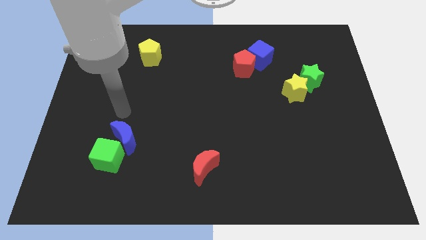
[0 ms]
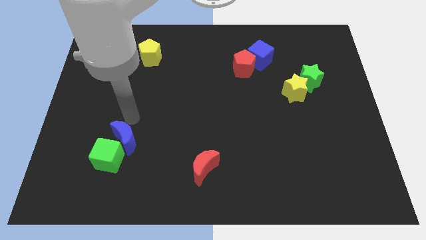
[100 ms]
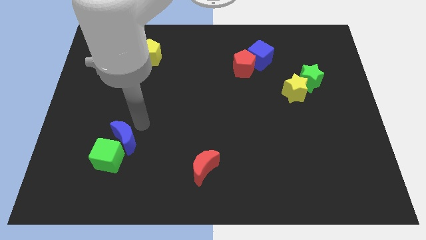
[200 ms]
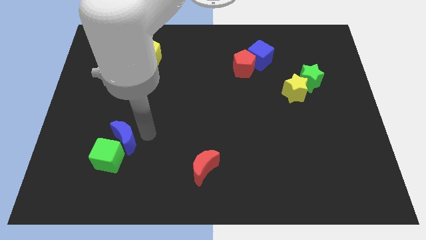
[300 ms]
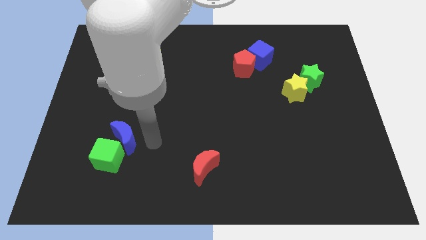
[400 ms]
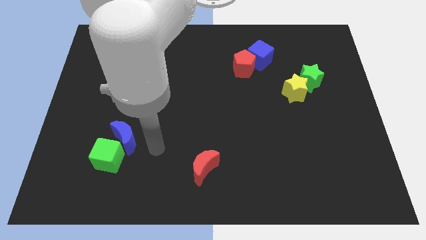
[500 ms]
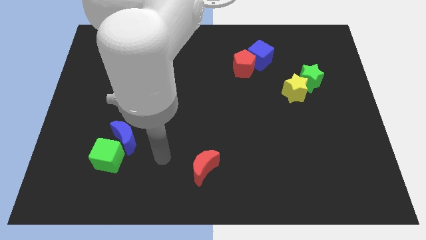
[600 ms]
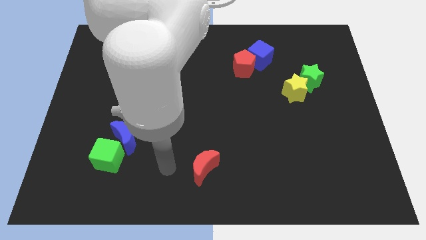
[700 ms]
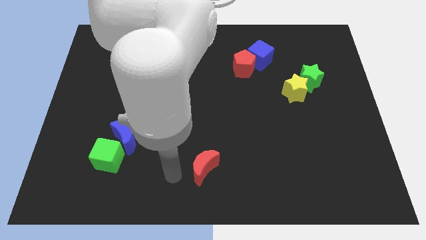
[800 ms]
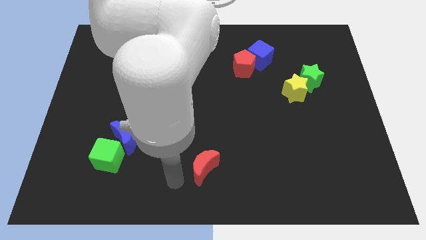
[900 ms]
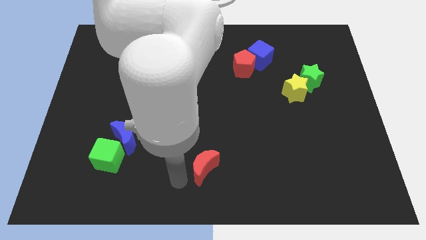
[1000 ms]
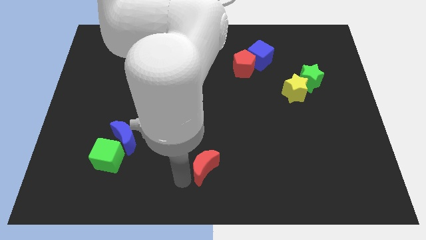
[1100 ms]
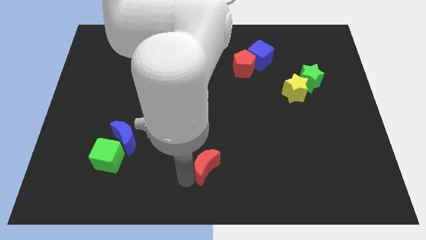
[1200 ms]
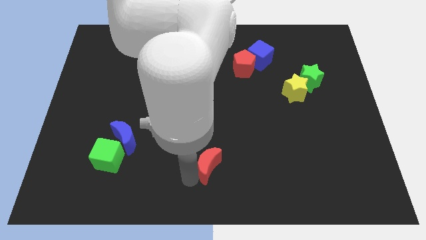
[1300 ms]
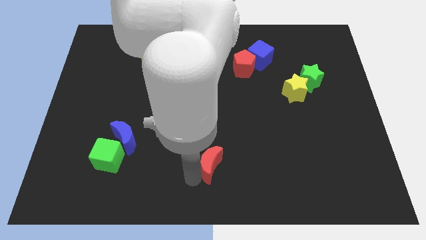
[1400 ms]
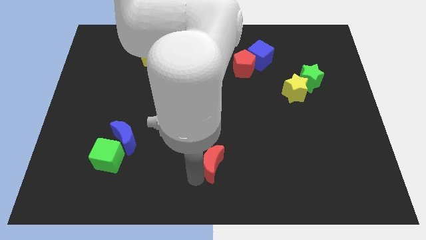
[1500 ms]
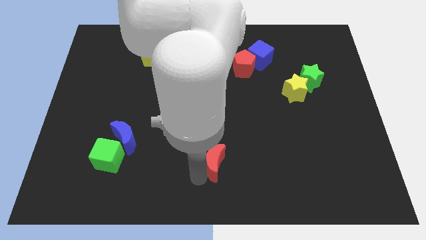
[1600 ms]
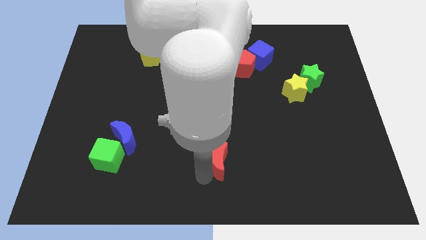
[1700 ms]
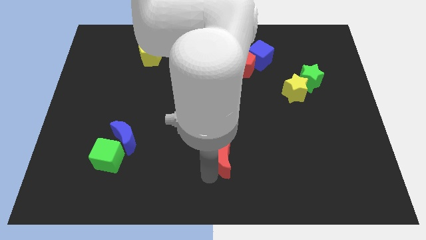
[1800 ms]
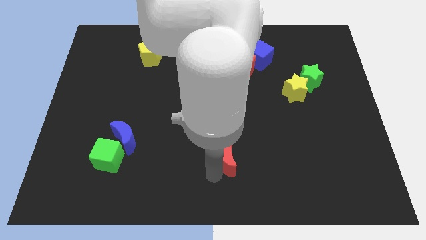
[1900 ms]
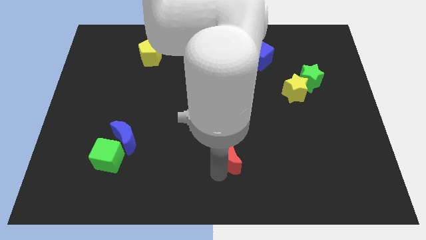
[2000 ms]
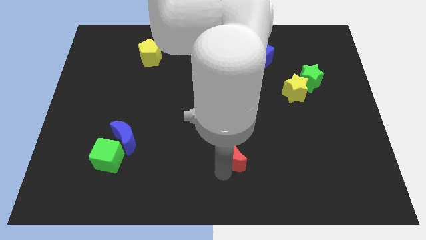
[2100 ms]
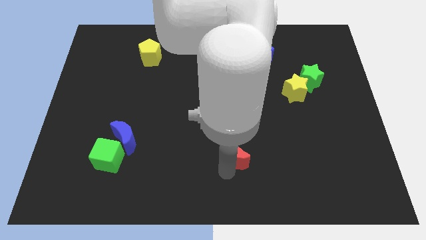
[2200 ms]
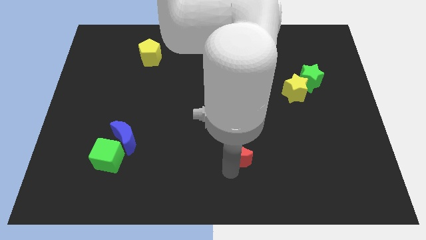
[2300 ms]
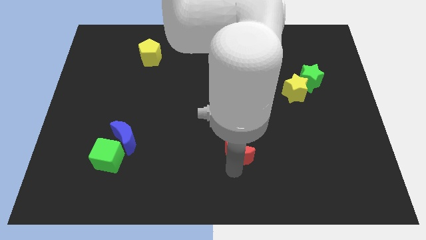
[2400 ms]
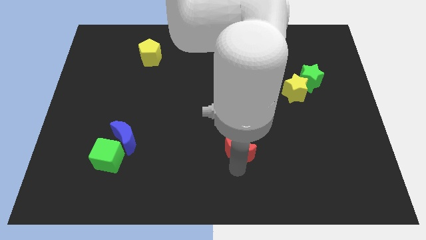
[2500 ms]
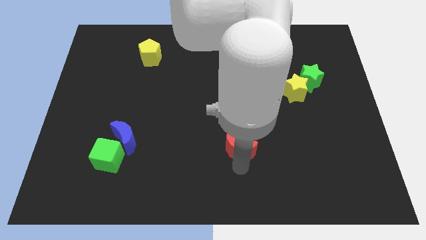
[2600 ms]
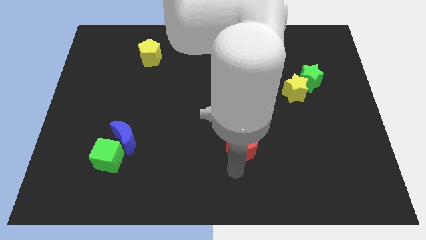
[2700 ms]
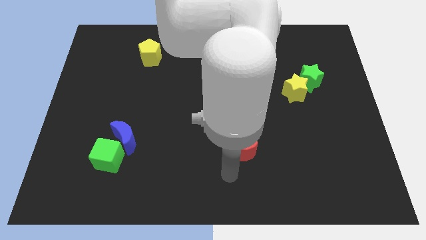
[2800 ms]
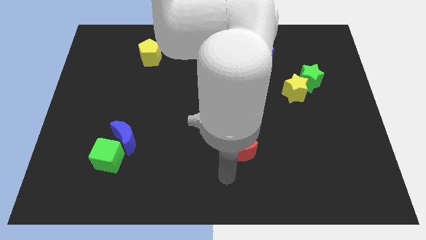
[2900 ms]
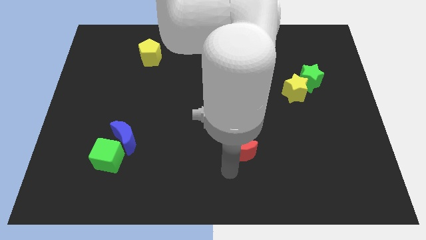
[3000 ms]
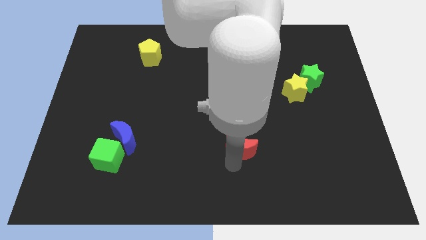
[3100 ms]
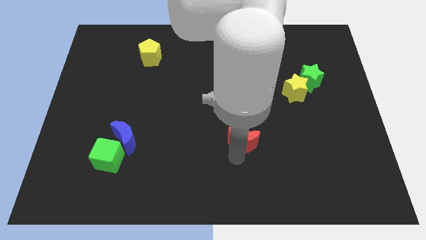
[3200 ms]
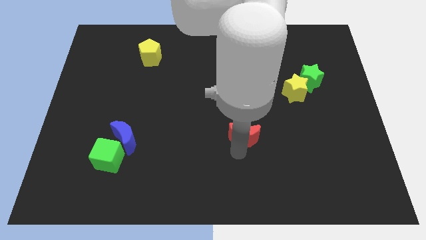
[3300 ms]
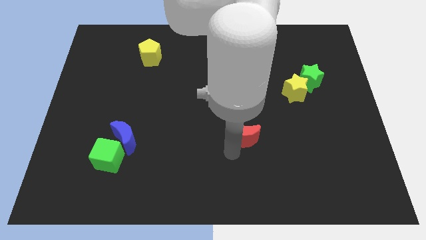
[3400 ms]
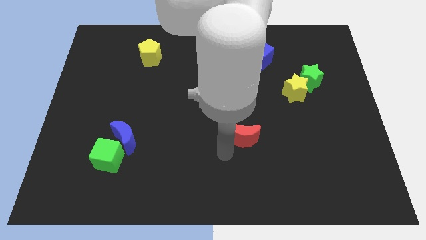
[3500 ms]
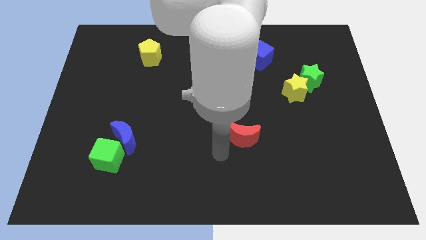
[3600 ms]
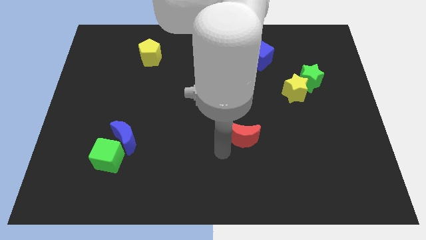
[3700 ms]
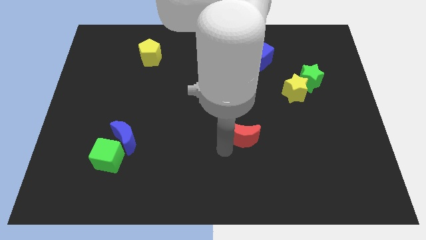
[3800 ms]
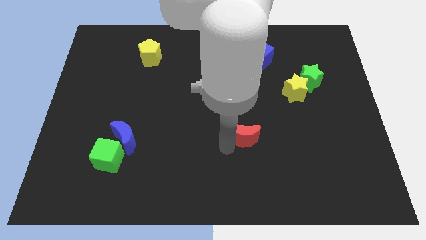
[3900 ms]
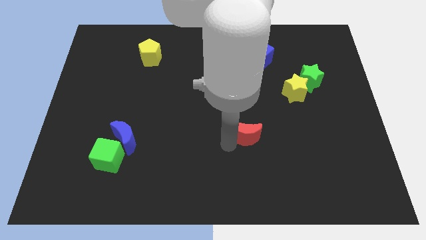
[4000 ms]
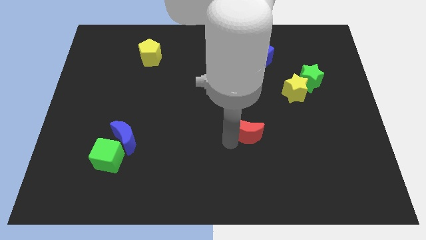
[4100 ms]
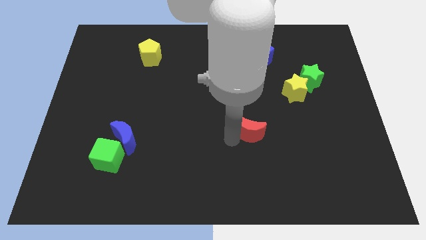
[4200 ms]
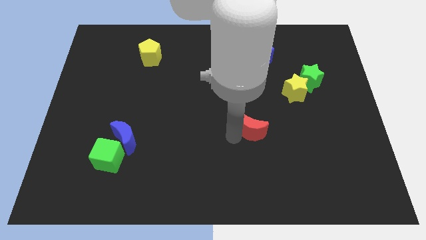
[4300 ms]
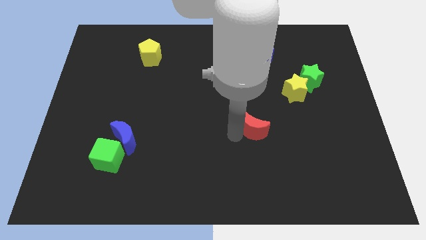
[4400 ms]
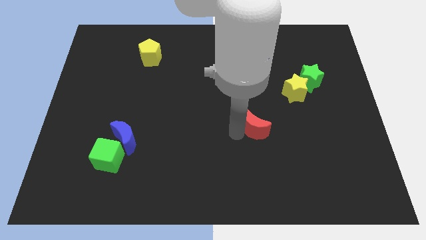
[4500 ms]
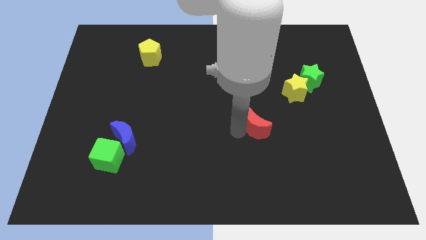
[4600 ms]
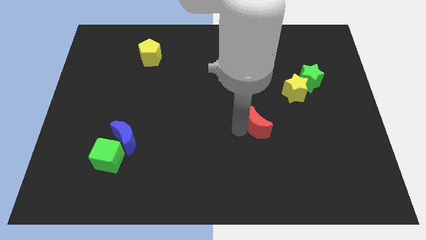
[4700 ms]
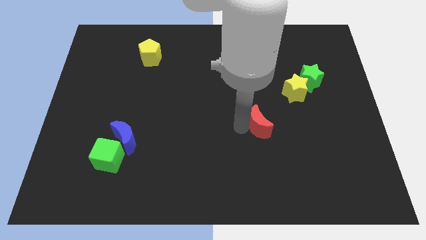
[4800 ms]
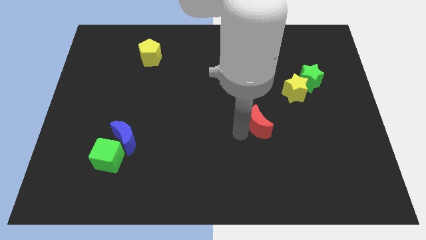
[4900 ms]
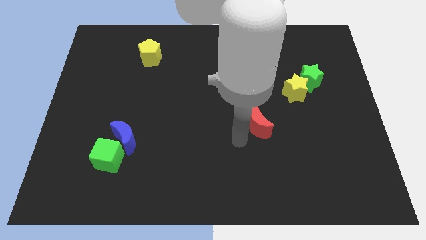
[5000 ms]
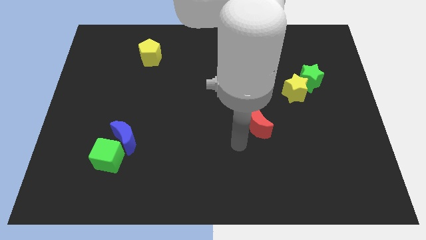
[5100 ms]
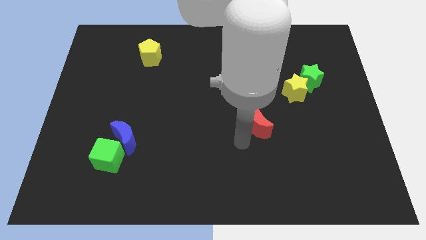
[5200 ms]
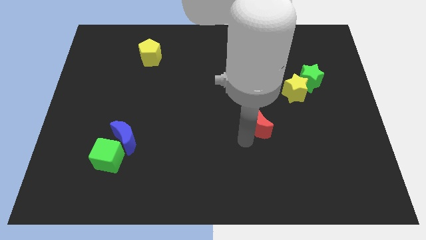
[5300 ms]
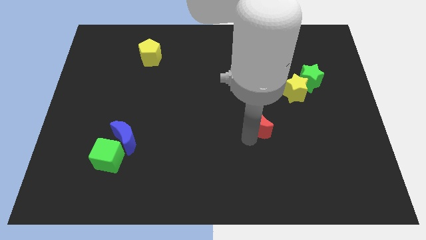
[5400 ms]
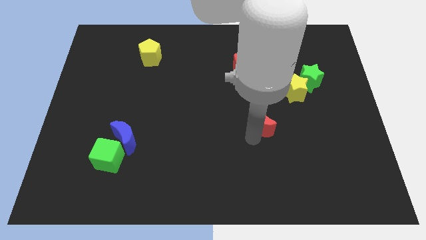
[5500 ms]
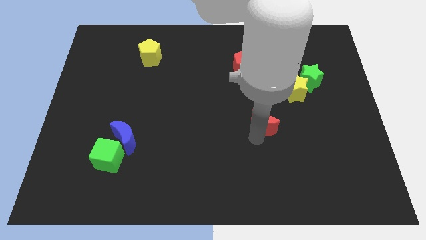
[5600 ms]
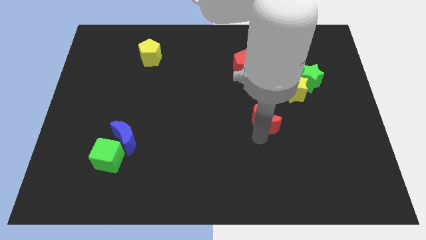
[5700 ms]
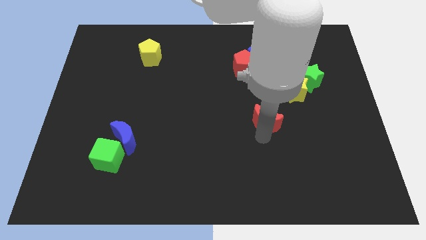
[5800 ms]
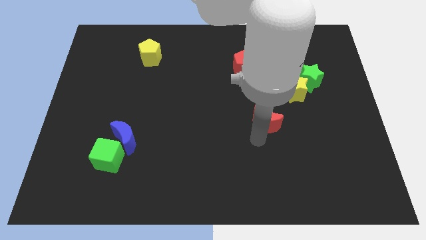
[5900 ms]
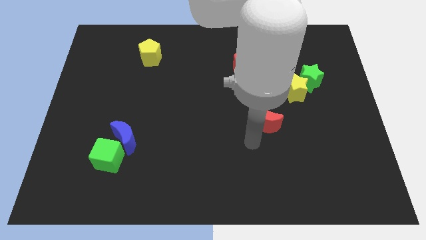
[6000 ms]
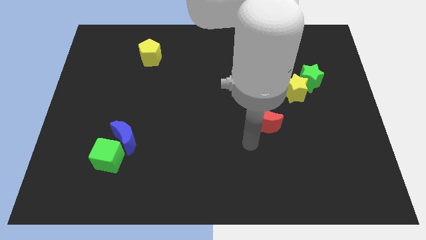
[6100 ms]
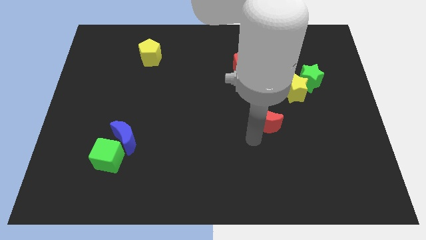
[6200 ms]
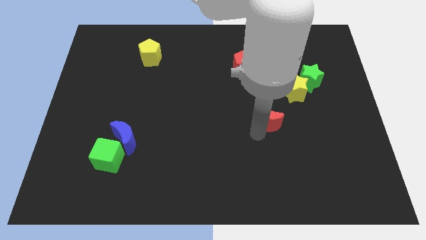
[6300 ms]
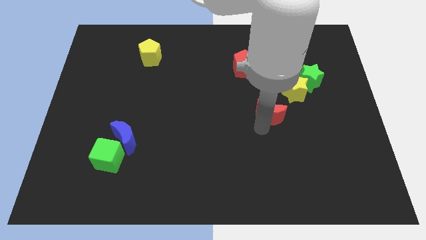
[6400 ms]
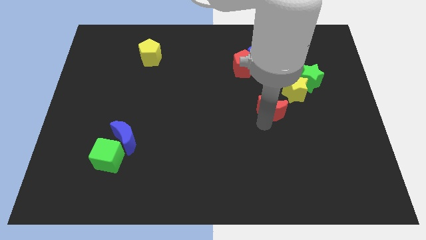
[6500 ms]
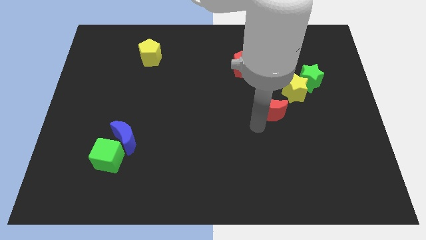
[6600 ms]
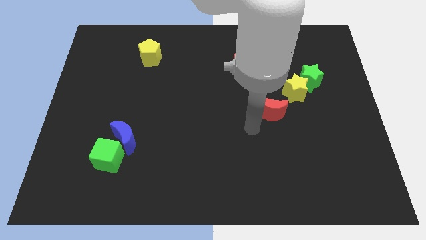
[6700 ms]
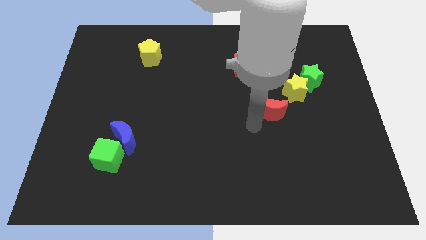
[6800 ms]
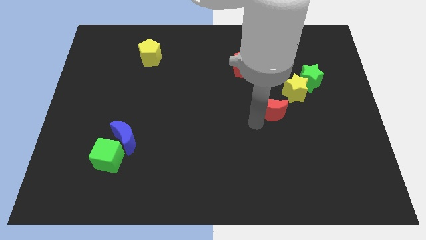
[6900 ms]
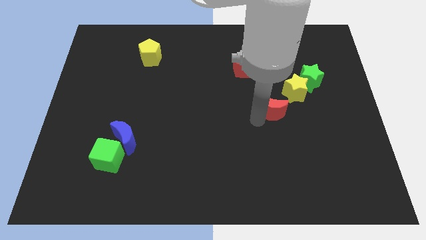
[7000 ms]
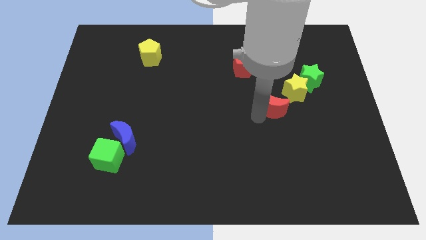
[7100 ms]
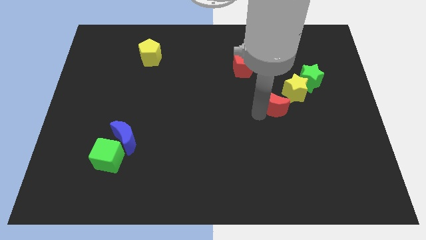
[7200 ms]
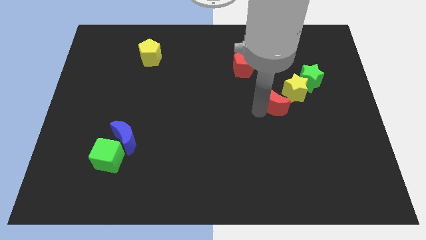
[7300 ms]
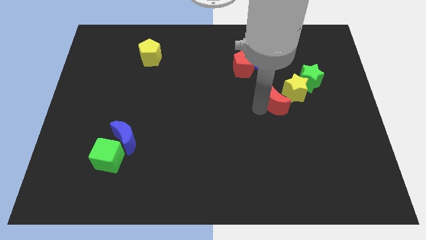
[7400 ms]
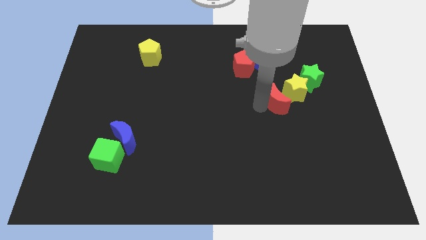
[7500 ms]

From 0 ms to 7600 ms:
put the red moon close to the yellow star

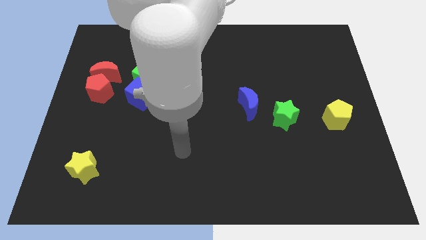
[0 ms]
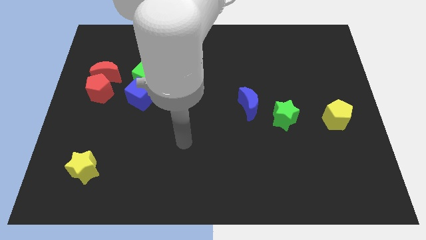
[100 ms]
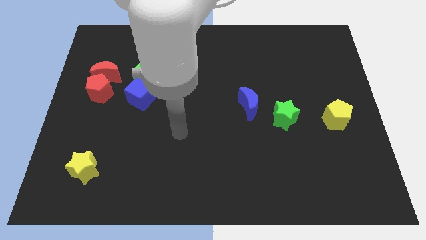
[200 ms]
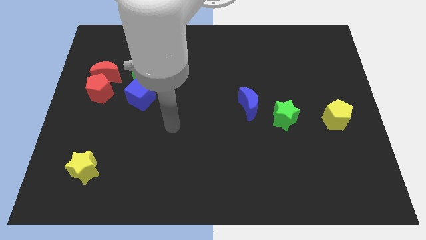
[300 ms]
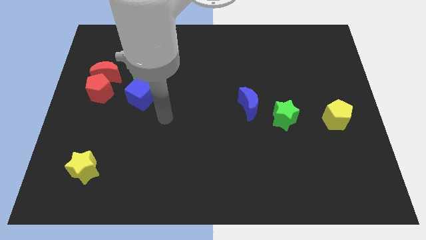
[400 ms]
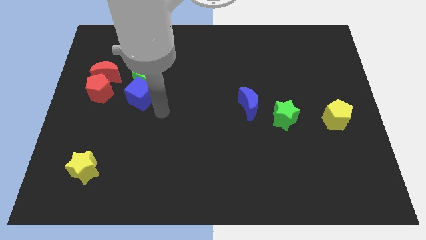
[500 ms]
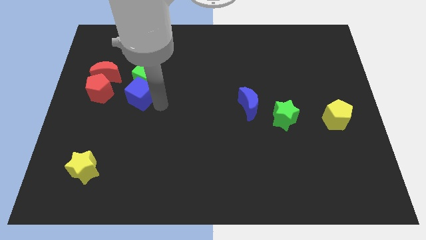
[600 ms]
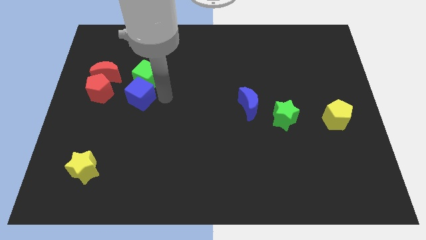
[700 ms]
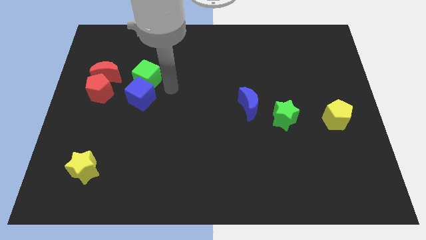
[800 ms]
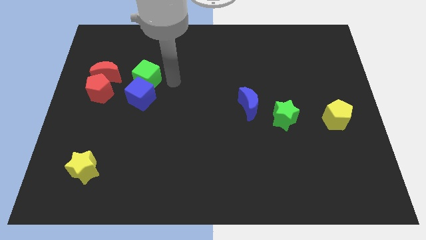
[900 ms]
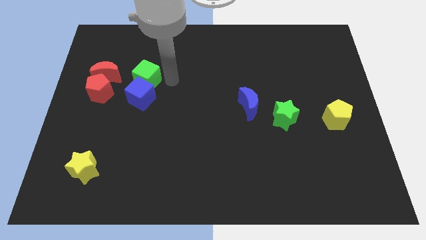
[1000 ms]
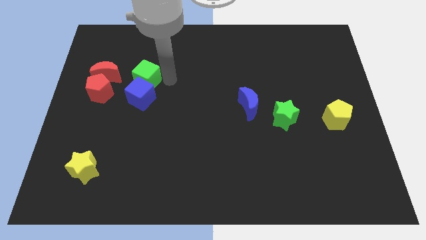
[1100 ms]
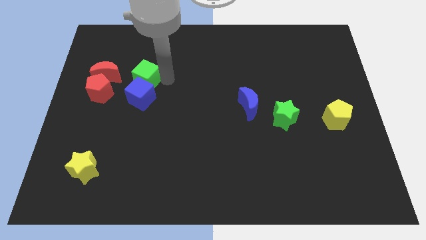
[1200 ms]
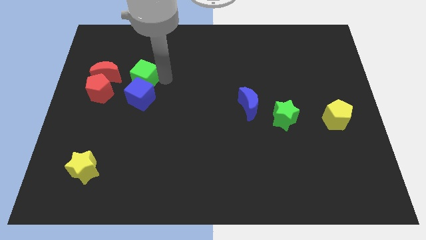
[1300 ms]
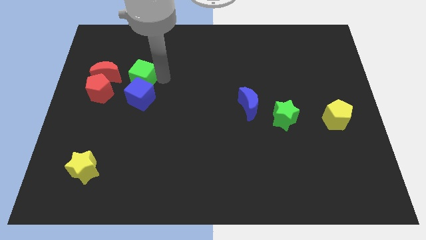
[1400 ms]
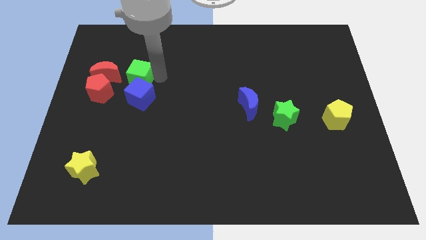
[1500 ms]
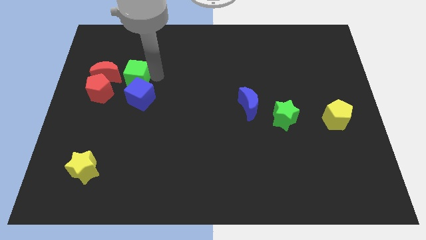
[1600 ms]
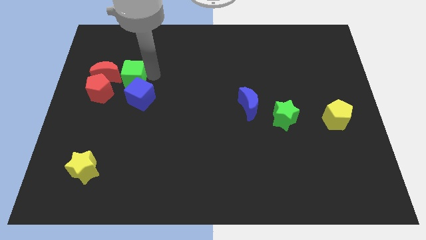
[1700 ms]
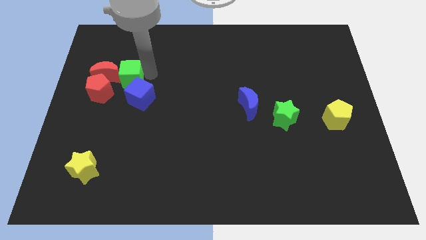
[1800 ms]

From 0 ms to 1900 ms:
move the green cube next to the red moon
